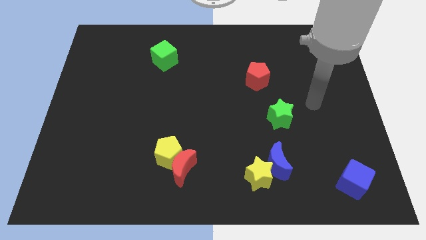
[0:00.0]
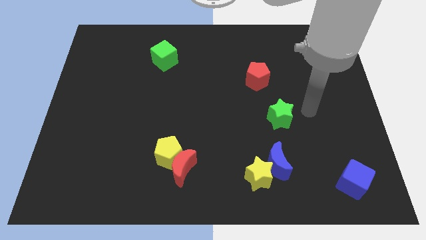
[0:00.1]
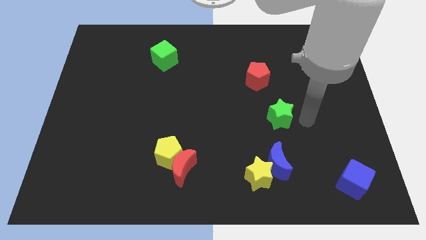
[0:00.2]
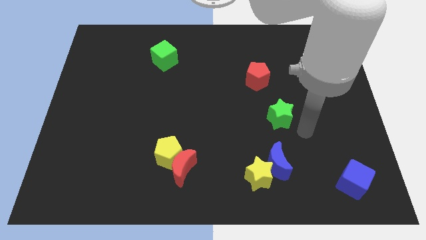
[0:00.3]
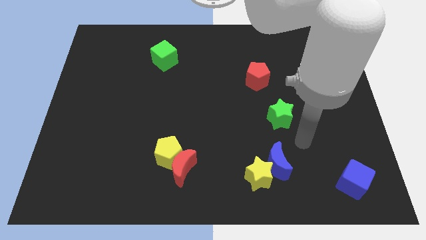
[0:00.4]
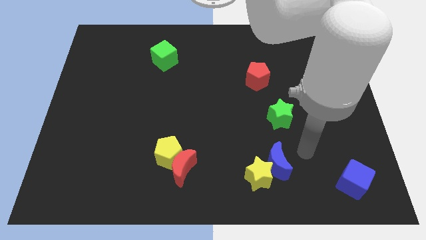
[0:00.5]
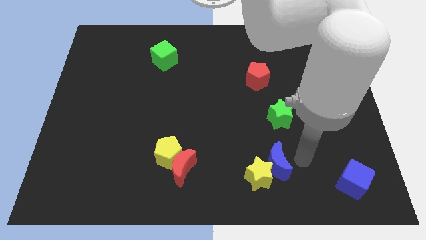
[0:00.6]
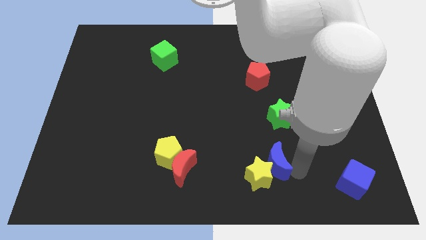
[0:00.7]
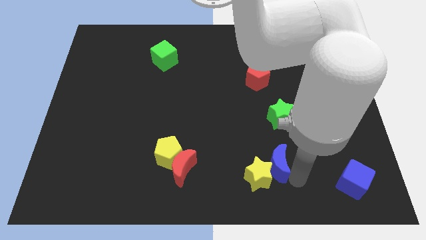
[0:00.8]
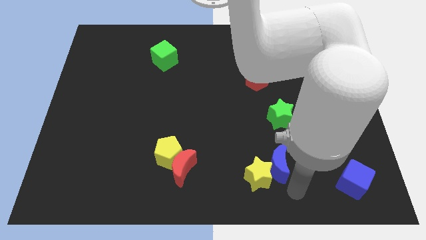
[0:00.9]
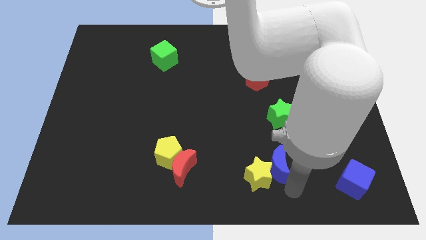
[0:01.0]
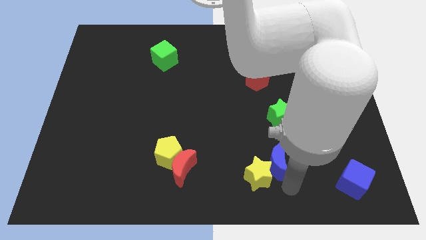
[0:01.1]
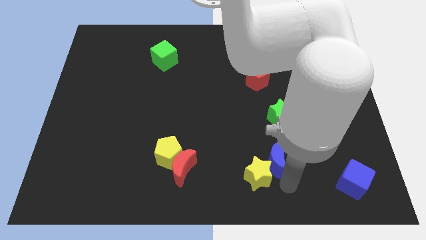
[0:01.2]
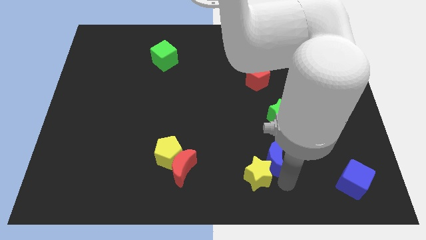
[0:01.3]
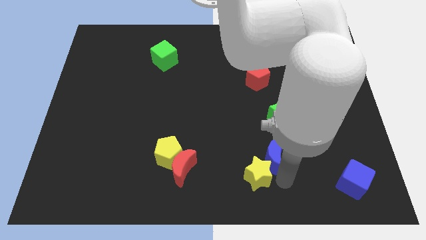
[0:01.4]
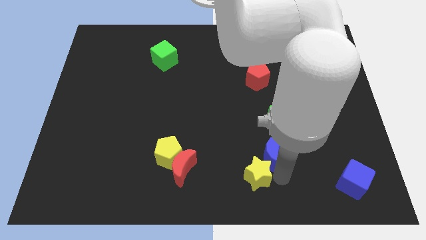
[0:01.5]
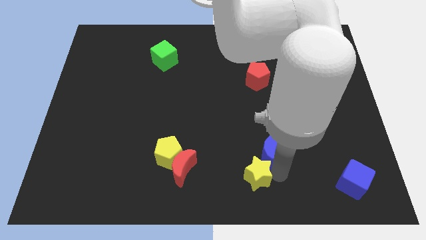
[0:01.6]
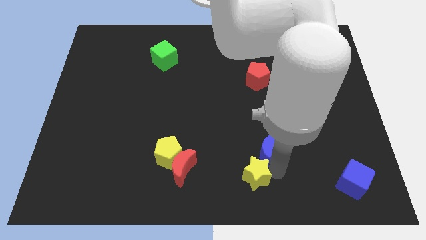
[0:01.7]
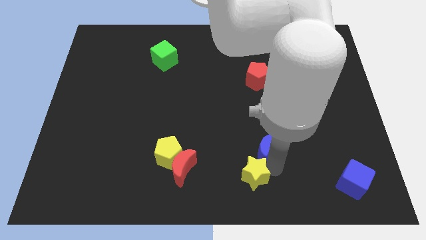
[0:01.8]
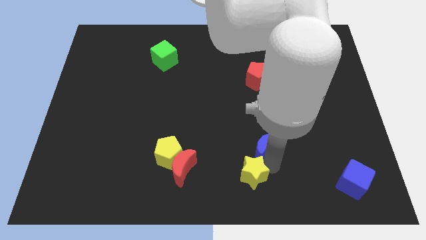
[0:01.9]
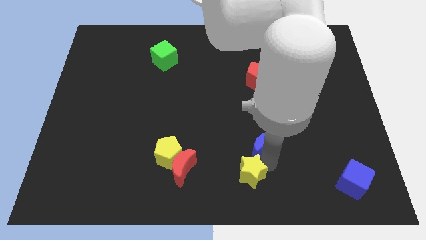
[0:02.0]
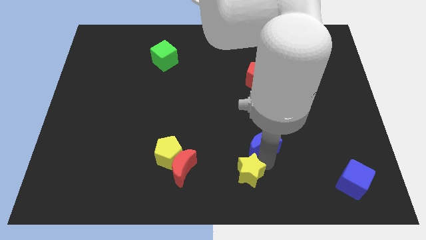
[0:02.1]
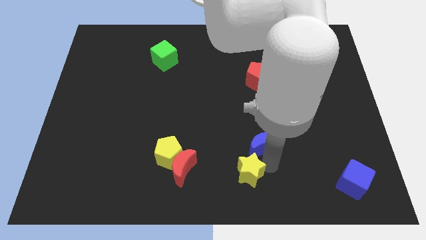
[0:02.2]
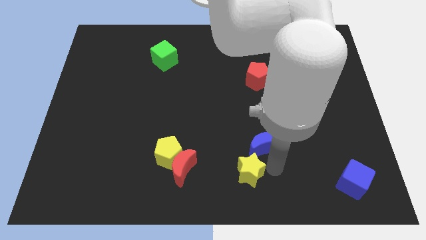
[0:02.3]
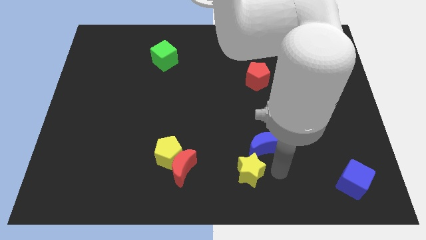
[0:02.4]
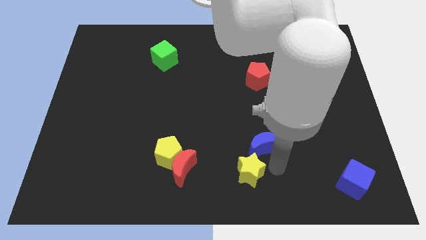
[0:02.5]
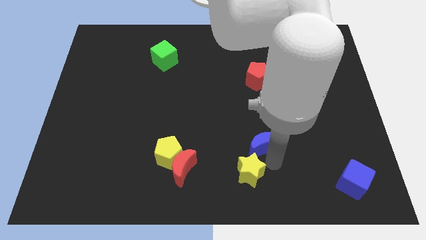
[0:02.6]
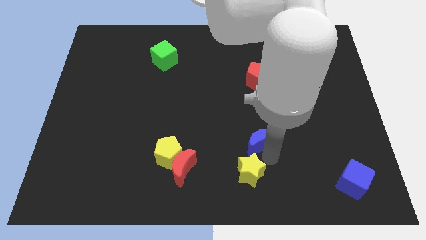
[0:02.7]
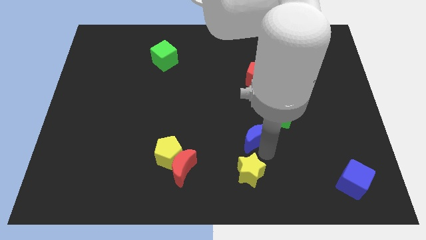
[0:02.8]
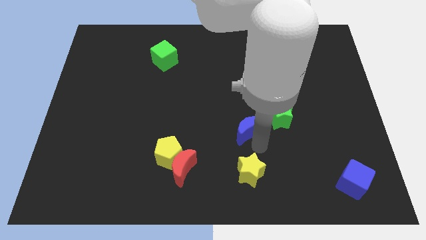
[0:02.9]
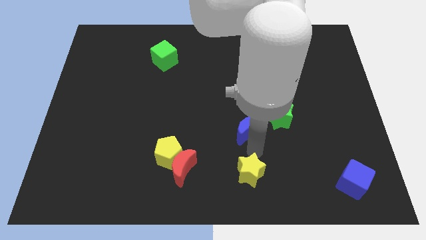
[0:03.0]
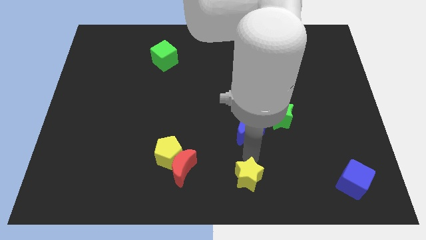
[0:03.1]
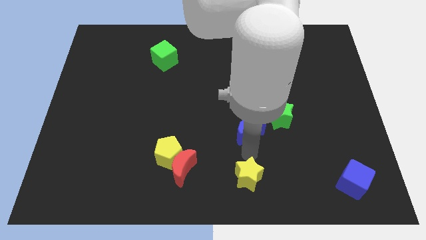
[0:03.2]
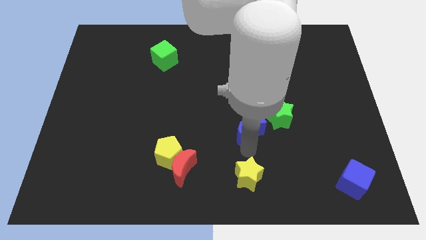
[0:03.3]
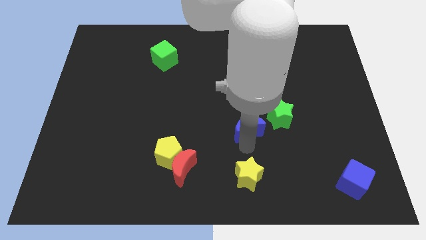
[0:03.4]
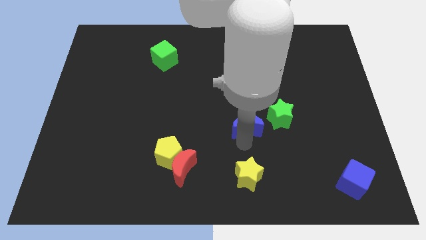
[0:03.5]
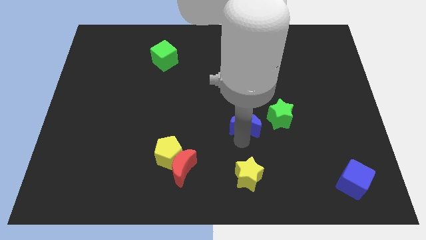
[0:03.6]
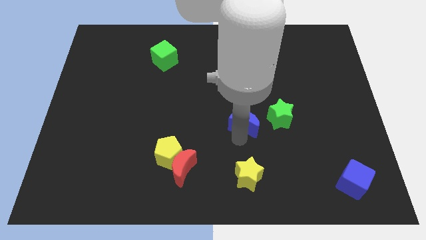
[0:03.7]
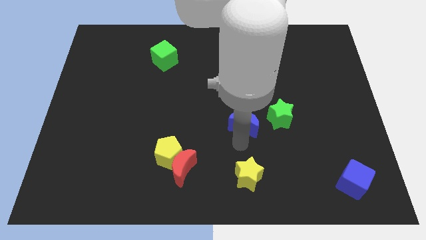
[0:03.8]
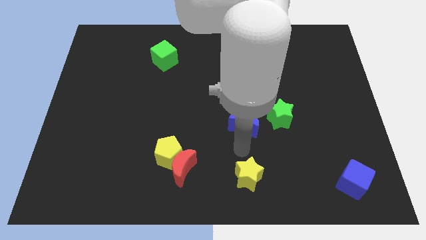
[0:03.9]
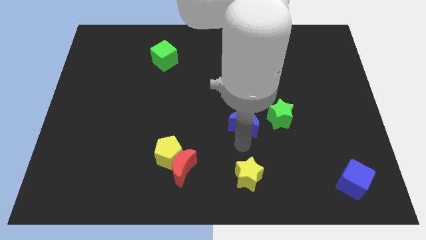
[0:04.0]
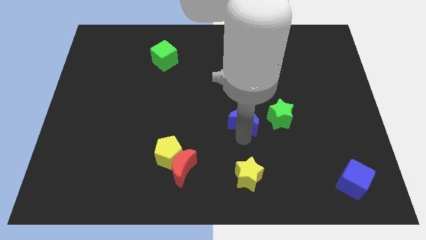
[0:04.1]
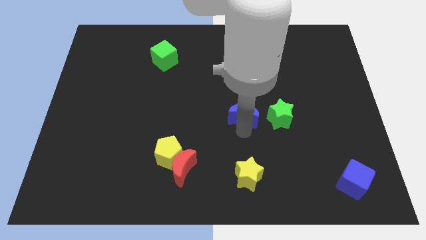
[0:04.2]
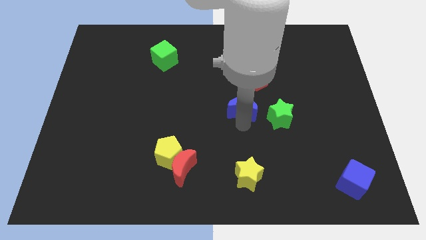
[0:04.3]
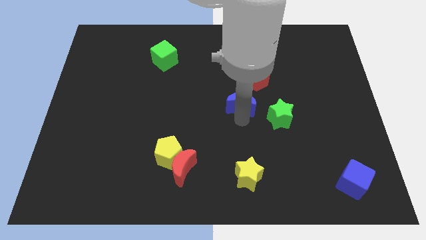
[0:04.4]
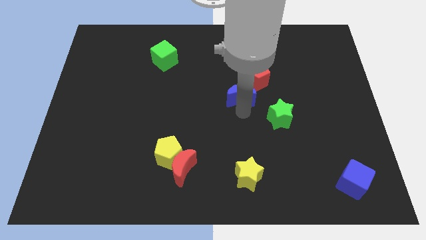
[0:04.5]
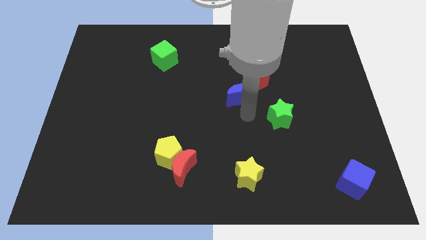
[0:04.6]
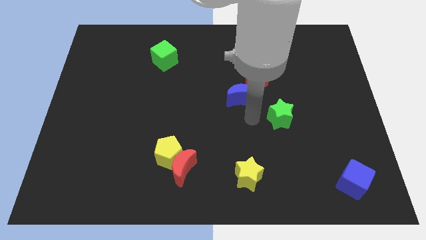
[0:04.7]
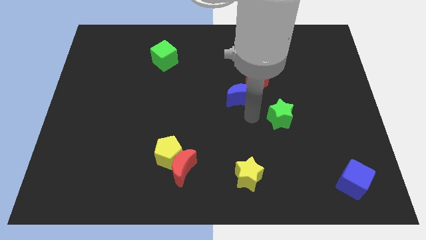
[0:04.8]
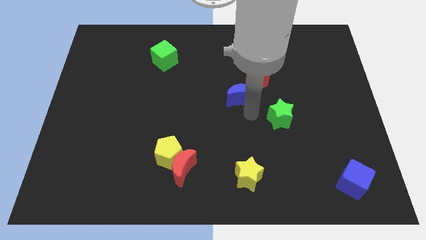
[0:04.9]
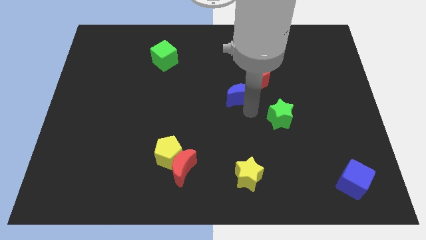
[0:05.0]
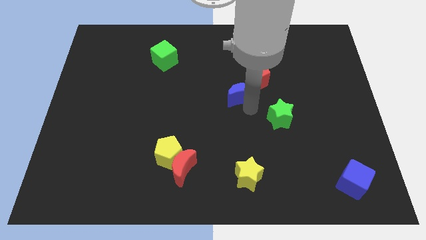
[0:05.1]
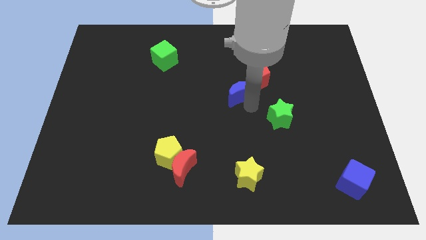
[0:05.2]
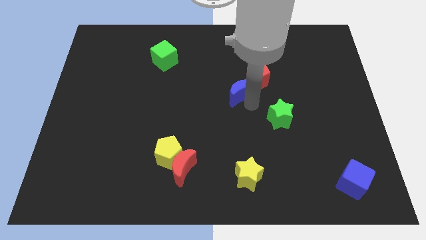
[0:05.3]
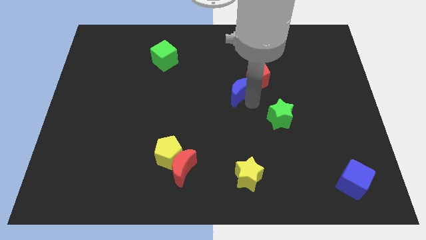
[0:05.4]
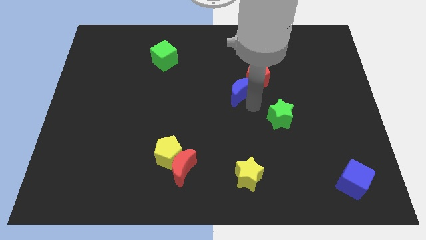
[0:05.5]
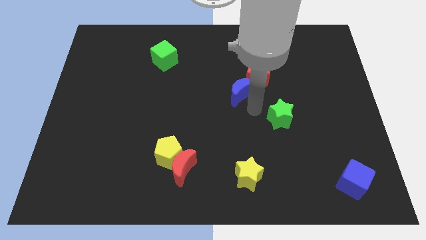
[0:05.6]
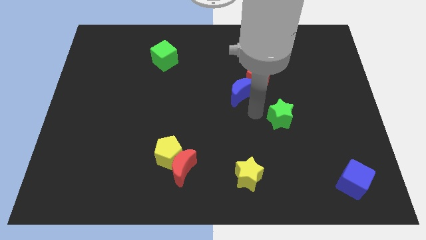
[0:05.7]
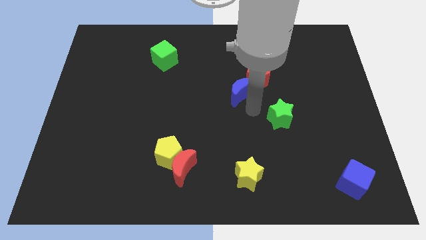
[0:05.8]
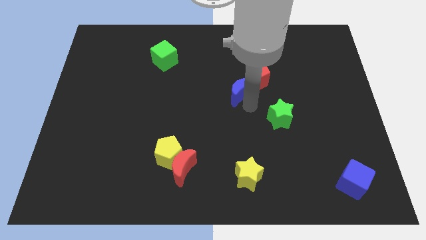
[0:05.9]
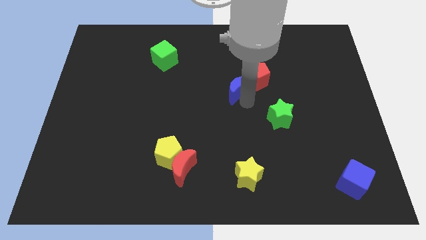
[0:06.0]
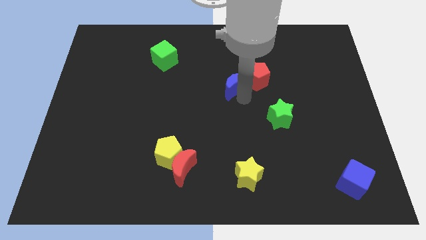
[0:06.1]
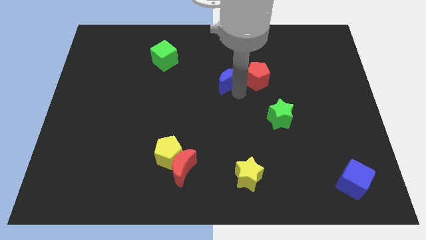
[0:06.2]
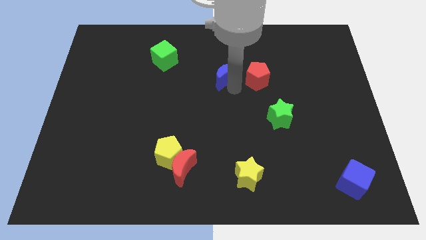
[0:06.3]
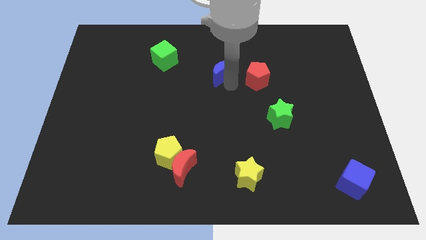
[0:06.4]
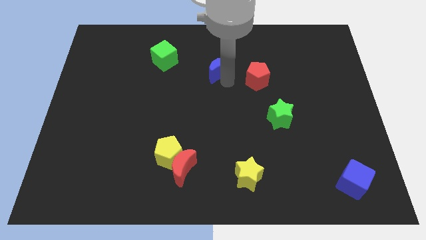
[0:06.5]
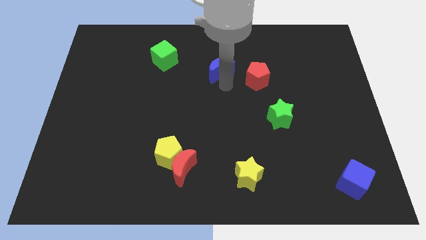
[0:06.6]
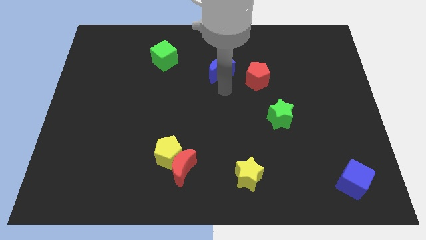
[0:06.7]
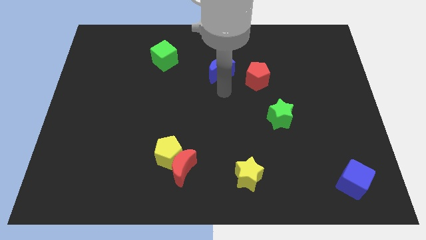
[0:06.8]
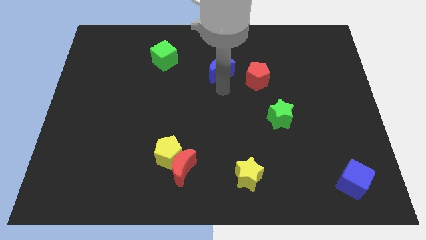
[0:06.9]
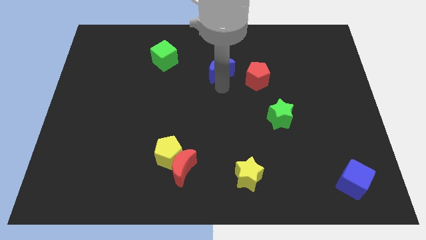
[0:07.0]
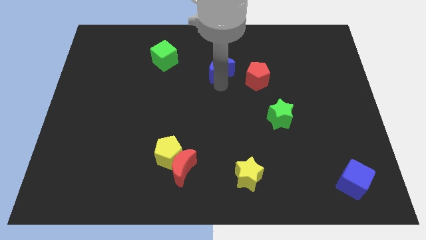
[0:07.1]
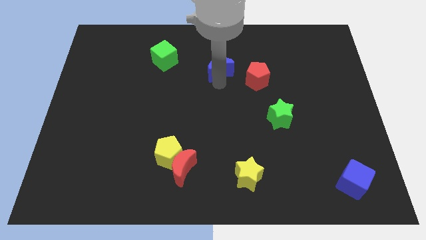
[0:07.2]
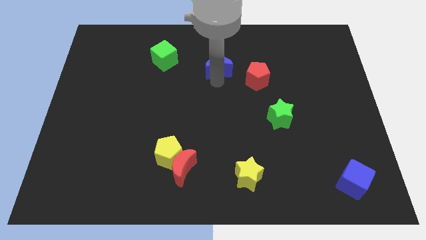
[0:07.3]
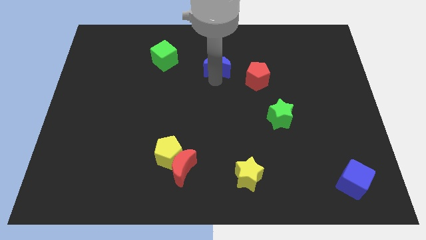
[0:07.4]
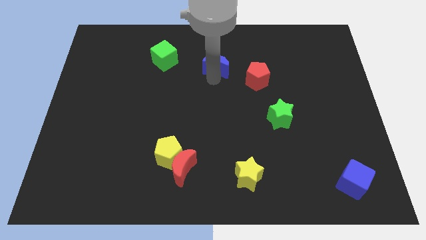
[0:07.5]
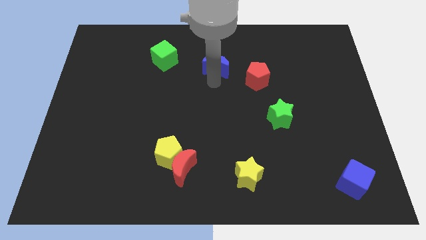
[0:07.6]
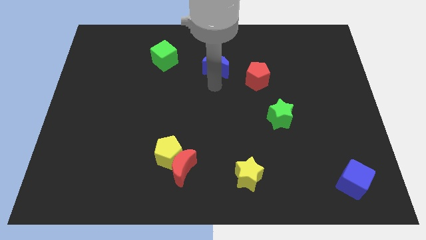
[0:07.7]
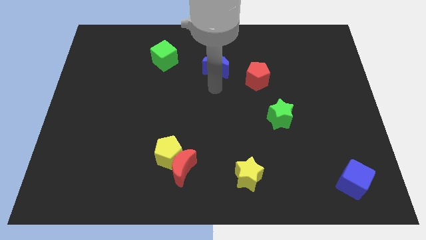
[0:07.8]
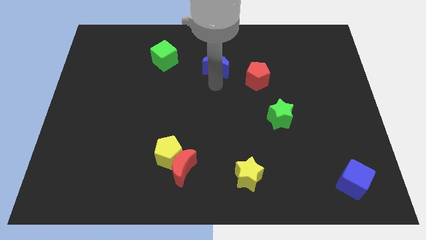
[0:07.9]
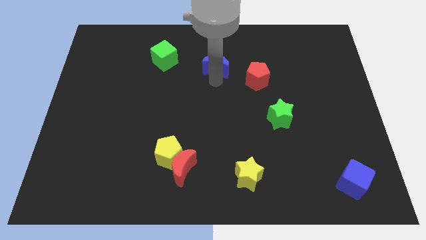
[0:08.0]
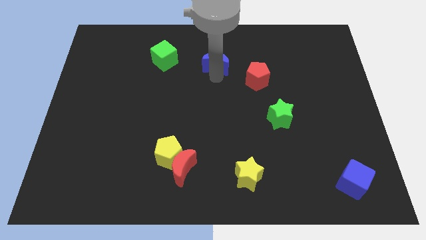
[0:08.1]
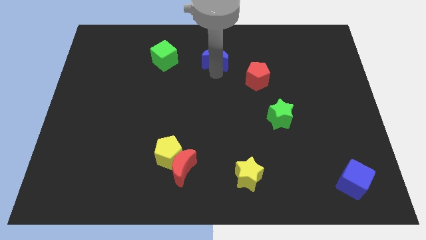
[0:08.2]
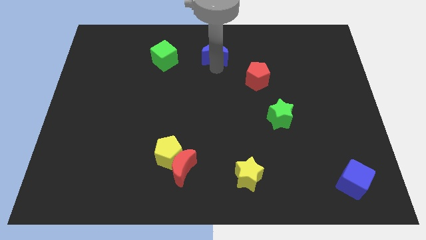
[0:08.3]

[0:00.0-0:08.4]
move the blue moon to the top side
